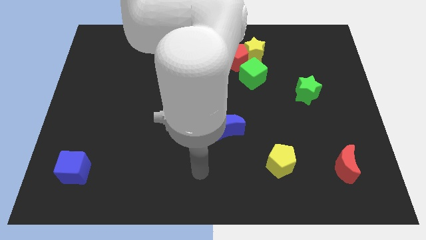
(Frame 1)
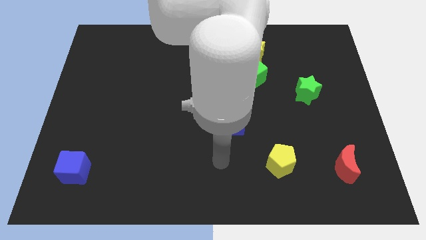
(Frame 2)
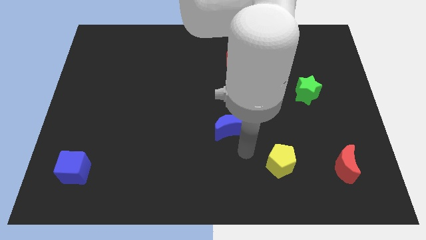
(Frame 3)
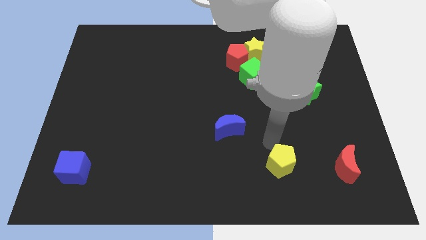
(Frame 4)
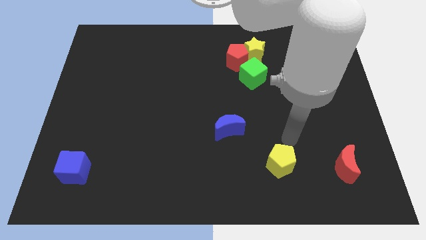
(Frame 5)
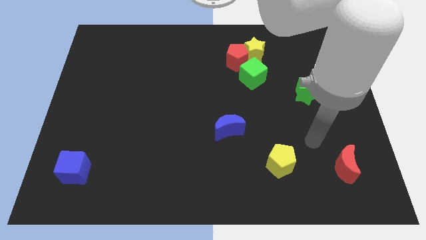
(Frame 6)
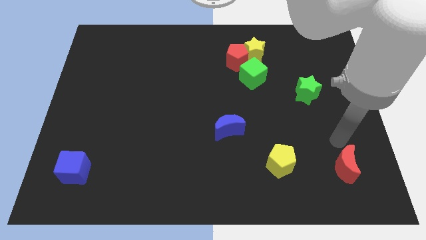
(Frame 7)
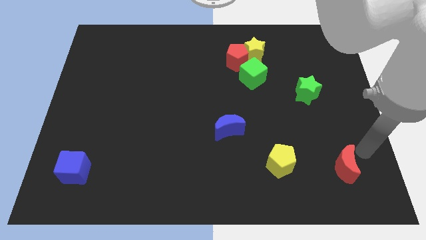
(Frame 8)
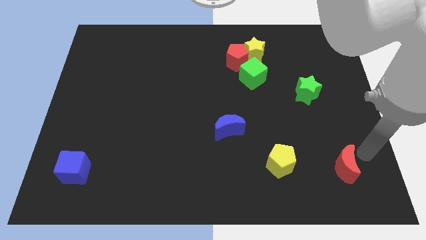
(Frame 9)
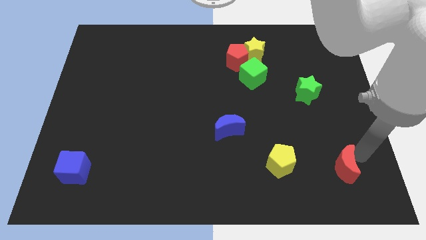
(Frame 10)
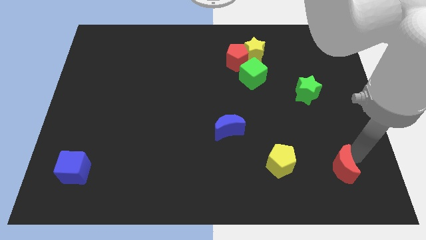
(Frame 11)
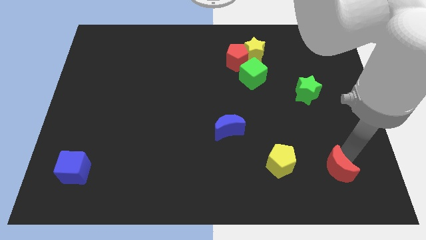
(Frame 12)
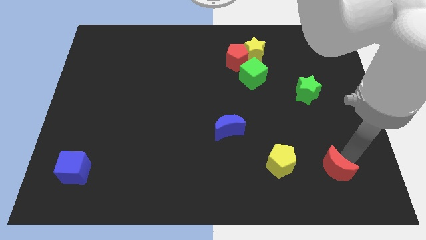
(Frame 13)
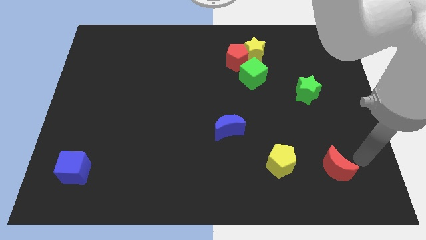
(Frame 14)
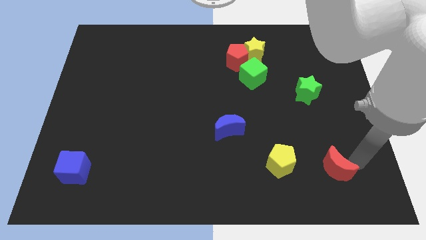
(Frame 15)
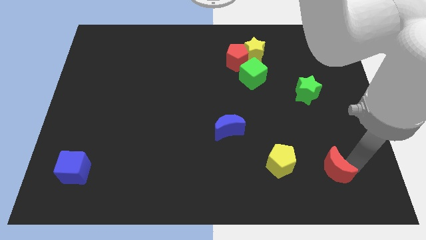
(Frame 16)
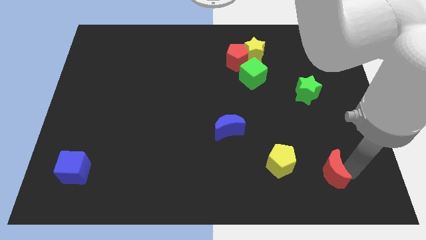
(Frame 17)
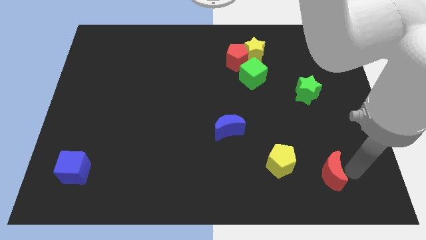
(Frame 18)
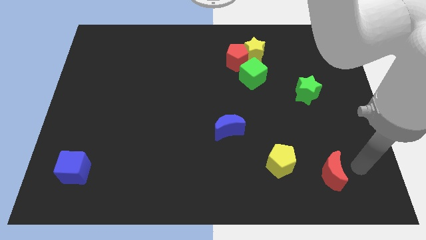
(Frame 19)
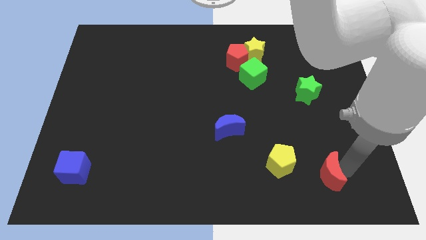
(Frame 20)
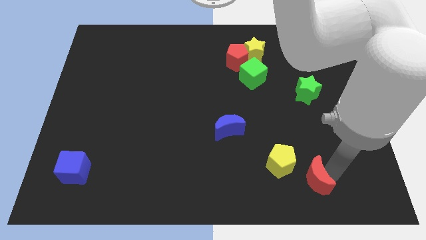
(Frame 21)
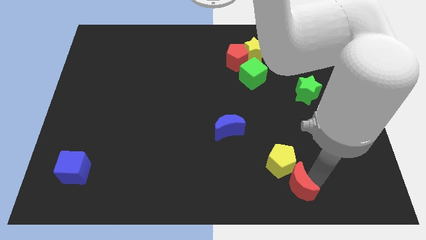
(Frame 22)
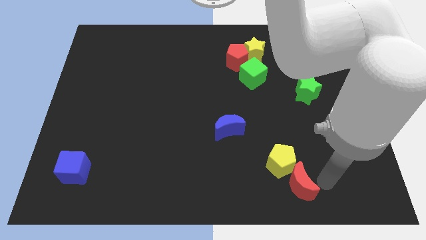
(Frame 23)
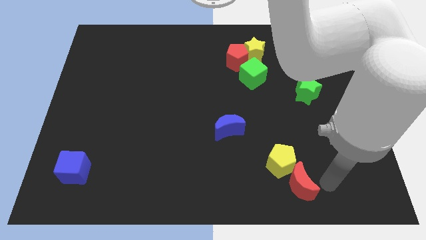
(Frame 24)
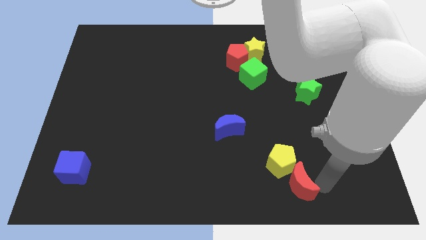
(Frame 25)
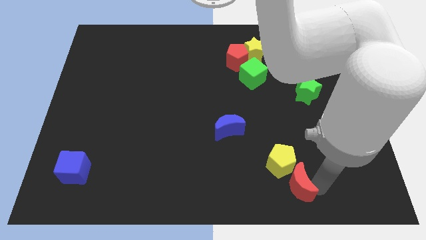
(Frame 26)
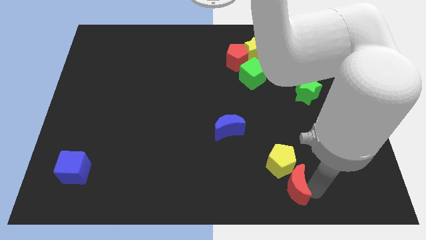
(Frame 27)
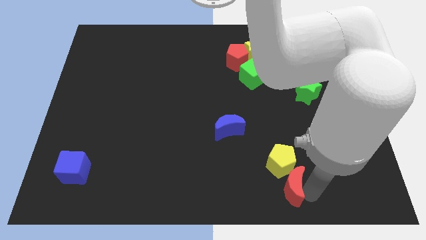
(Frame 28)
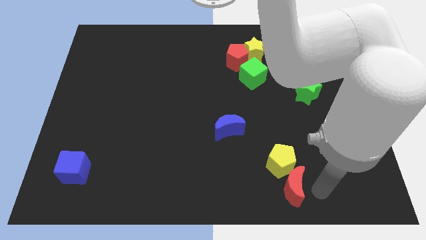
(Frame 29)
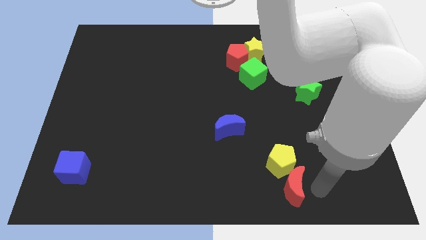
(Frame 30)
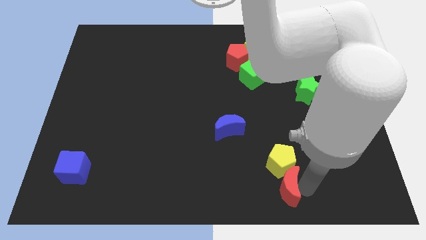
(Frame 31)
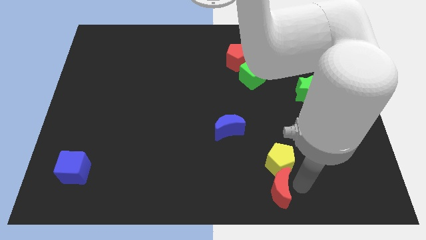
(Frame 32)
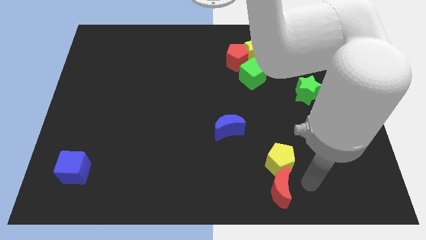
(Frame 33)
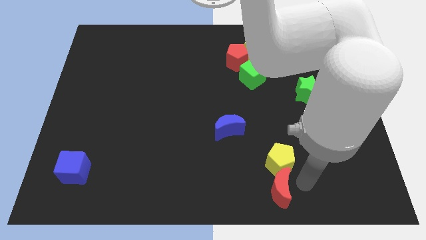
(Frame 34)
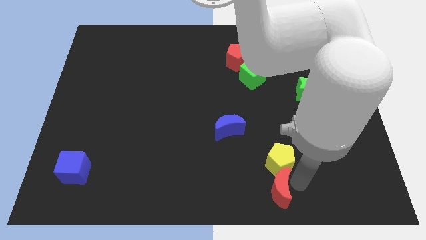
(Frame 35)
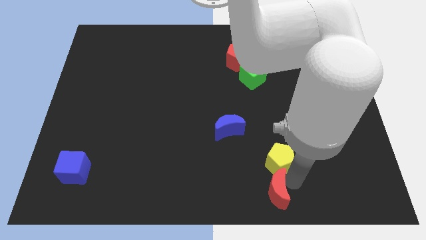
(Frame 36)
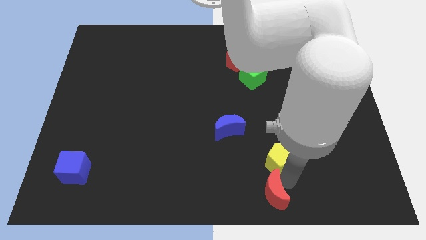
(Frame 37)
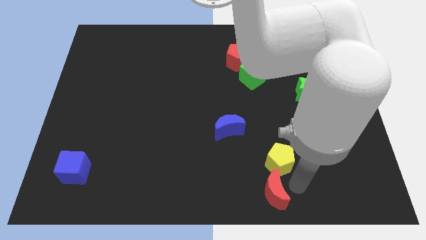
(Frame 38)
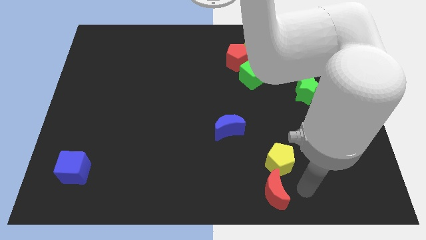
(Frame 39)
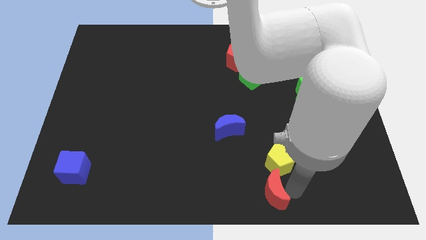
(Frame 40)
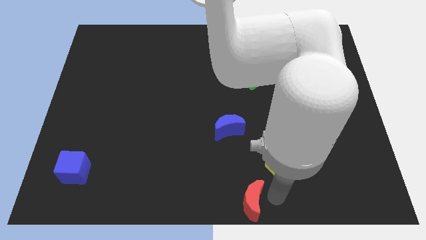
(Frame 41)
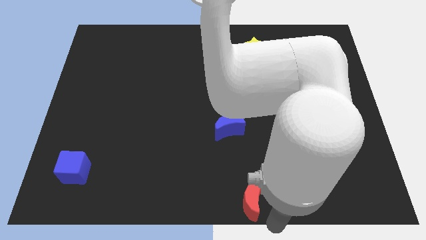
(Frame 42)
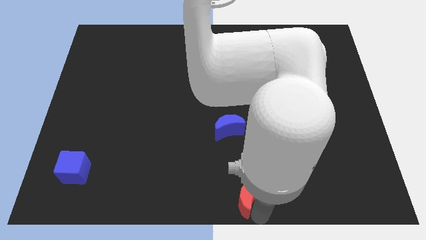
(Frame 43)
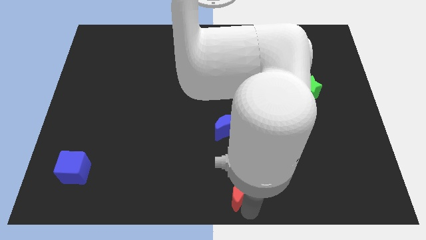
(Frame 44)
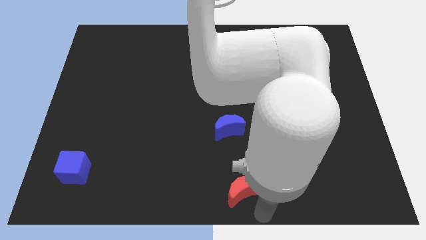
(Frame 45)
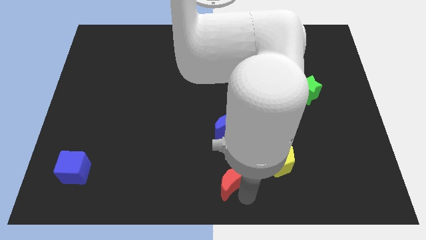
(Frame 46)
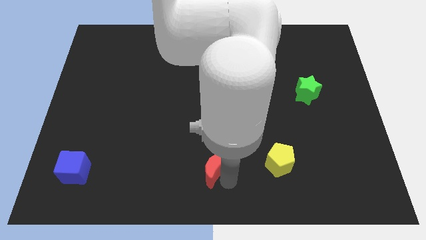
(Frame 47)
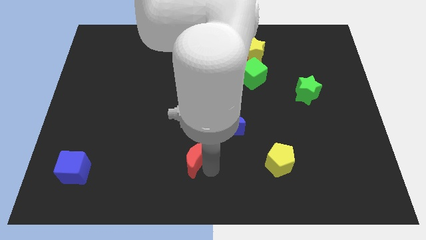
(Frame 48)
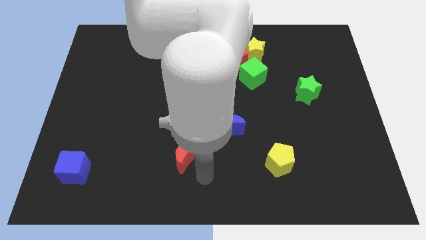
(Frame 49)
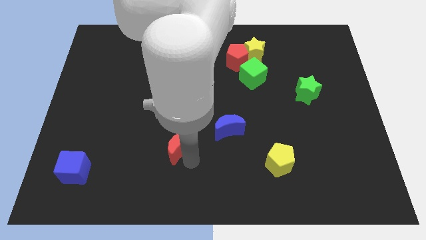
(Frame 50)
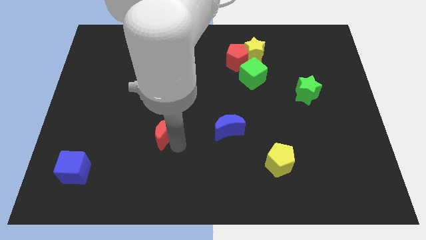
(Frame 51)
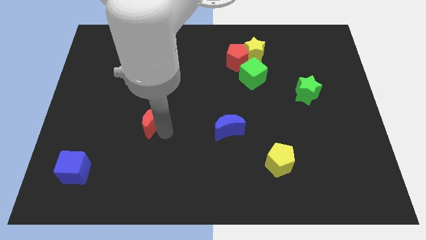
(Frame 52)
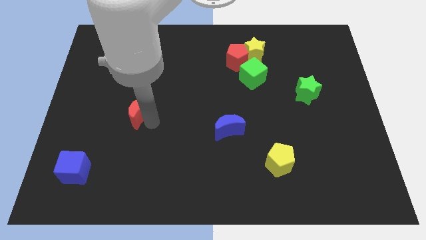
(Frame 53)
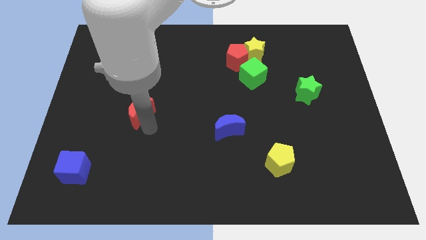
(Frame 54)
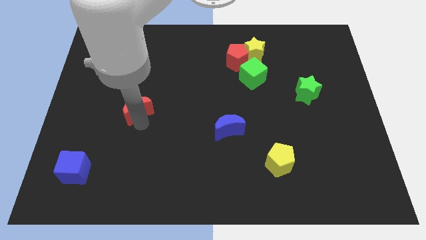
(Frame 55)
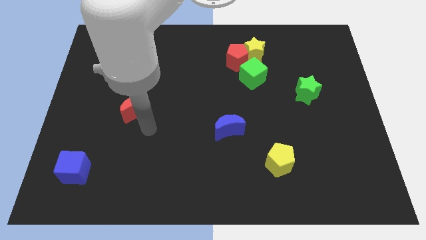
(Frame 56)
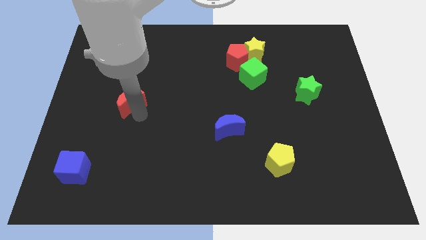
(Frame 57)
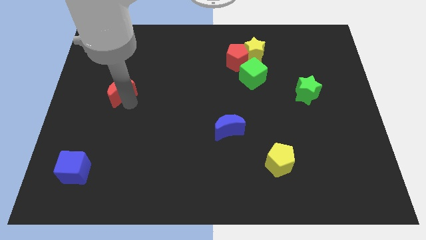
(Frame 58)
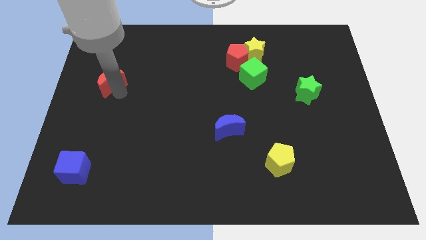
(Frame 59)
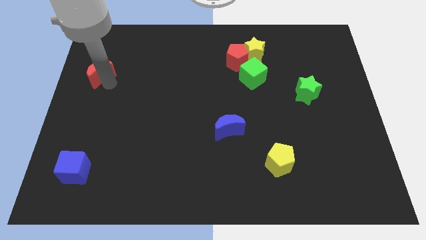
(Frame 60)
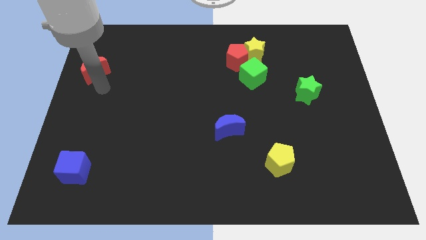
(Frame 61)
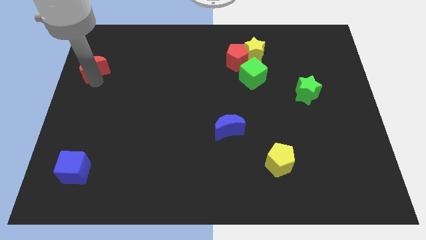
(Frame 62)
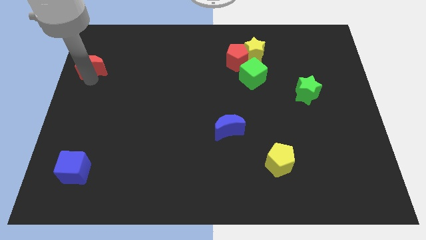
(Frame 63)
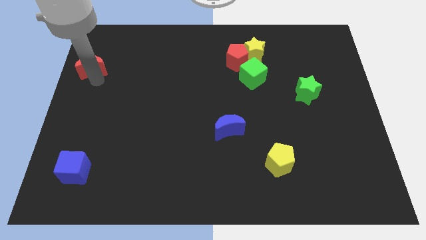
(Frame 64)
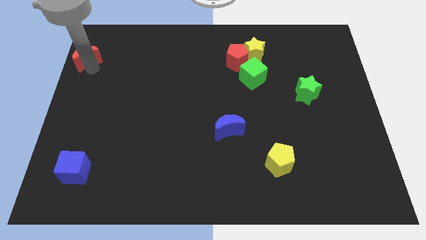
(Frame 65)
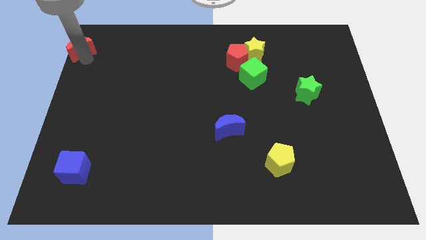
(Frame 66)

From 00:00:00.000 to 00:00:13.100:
move the red moon to the top left of the board
